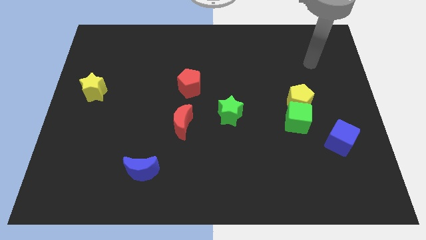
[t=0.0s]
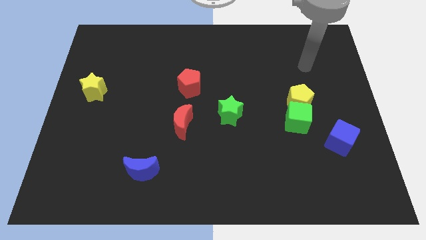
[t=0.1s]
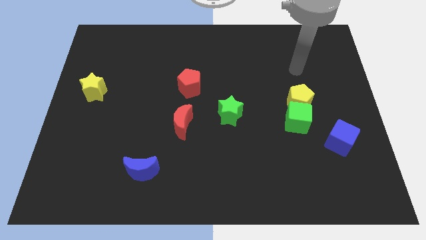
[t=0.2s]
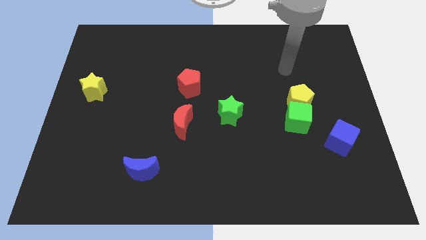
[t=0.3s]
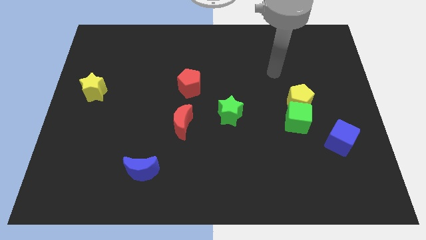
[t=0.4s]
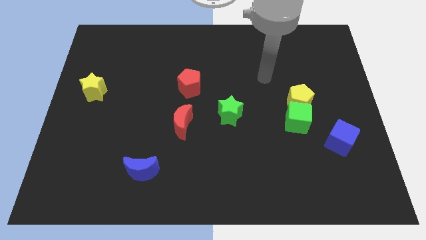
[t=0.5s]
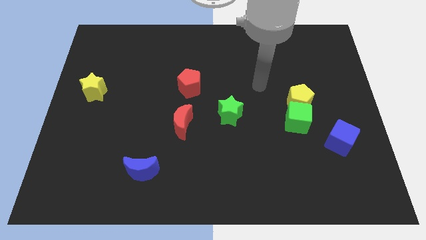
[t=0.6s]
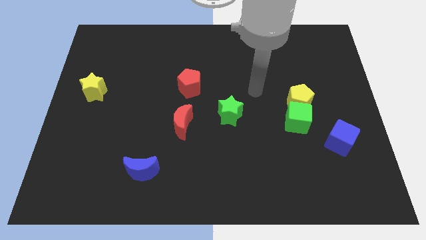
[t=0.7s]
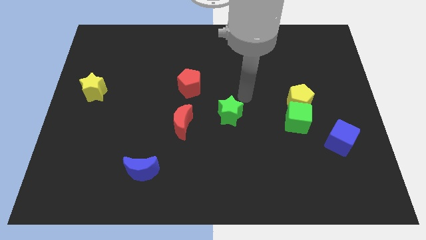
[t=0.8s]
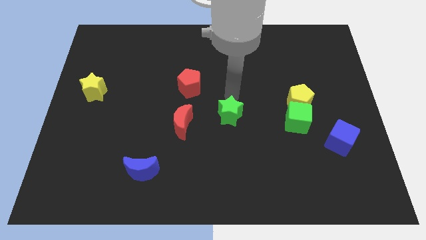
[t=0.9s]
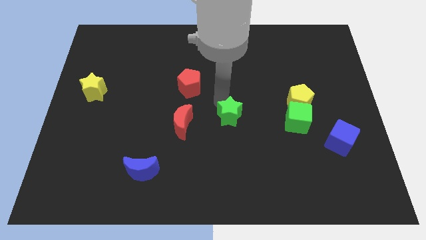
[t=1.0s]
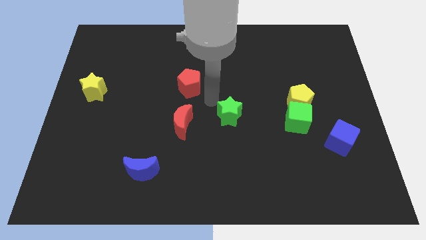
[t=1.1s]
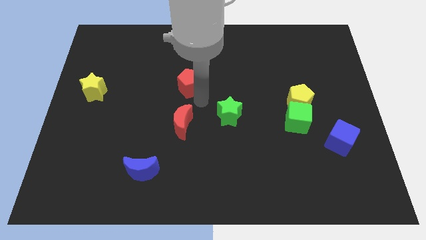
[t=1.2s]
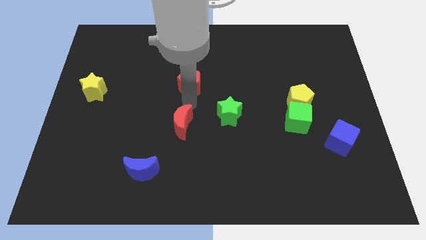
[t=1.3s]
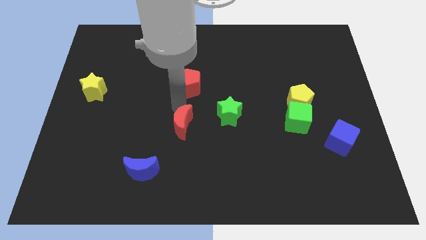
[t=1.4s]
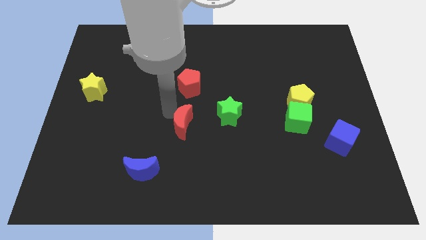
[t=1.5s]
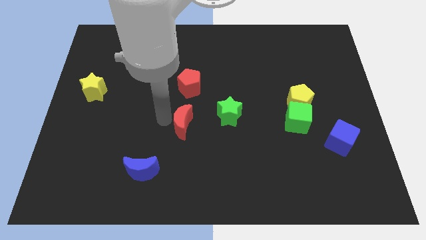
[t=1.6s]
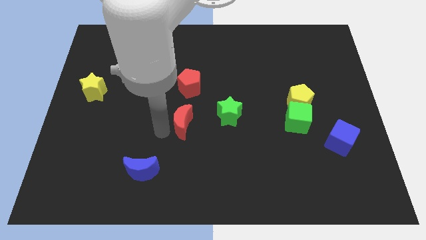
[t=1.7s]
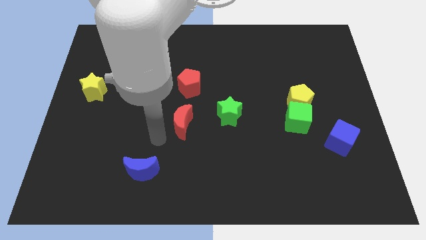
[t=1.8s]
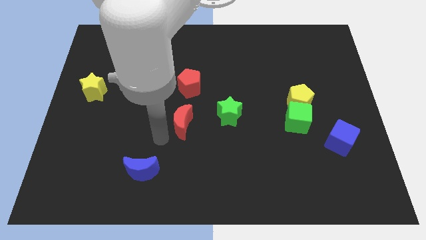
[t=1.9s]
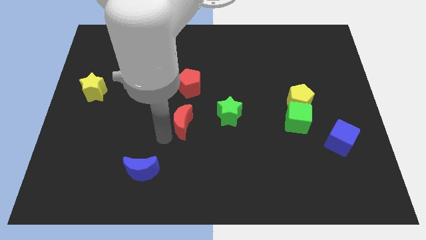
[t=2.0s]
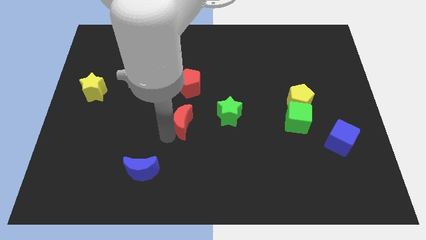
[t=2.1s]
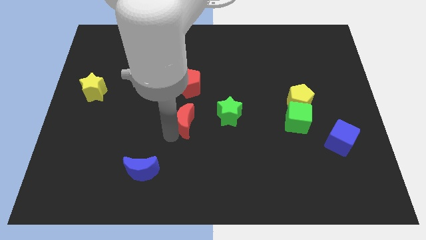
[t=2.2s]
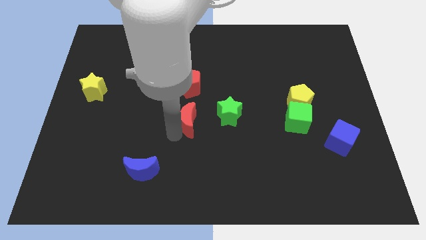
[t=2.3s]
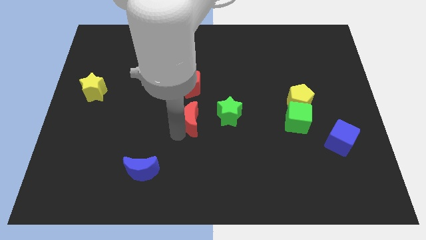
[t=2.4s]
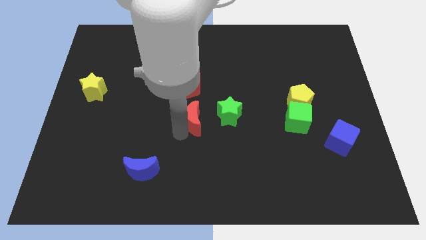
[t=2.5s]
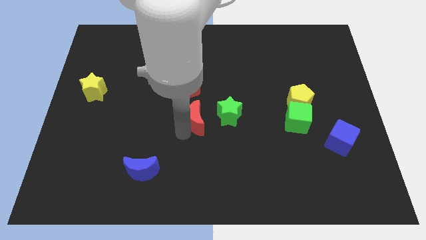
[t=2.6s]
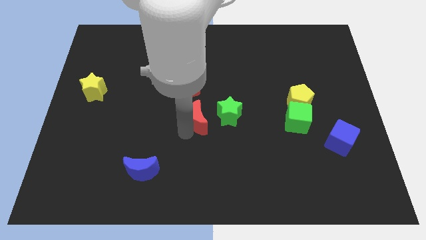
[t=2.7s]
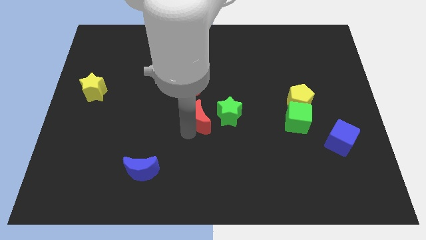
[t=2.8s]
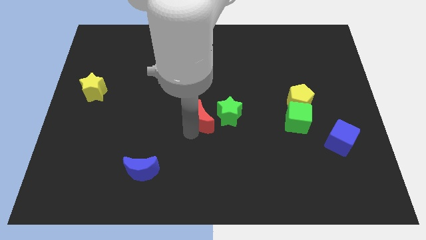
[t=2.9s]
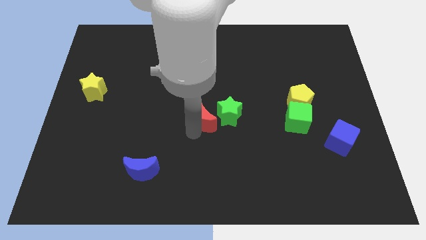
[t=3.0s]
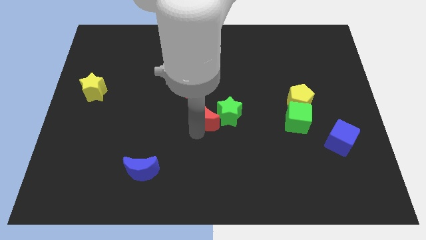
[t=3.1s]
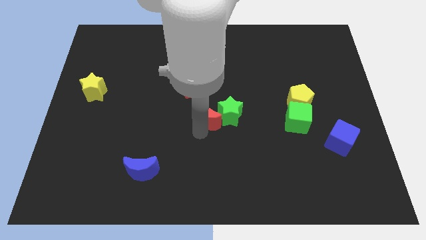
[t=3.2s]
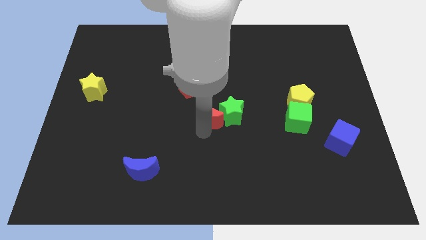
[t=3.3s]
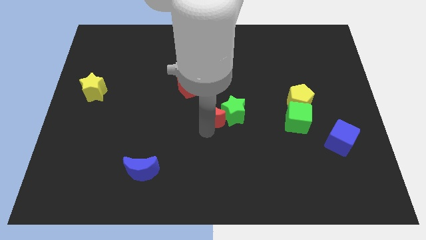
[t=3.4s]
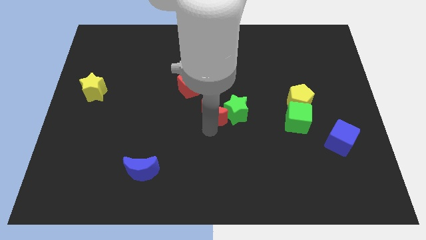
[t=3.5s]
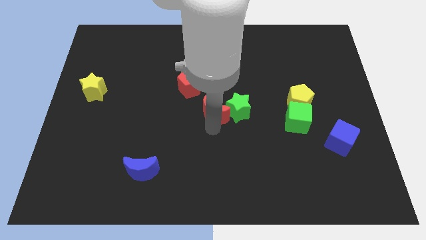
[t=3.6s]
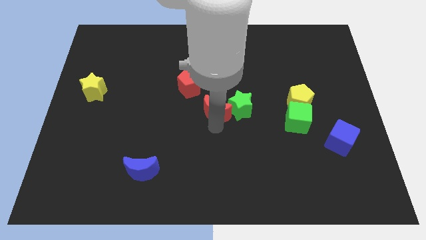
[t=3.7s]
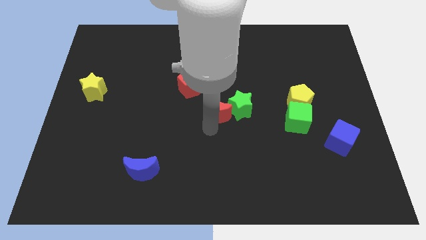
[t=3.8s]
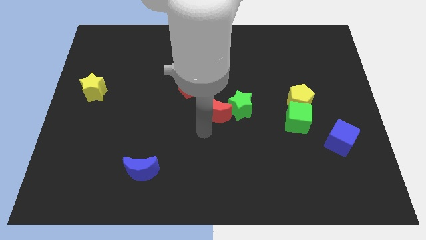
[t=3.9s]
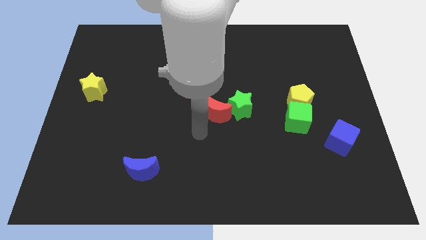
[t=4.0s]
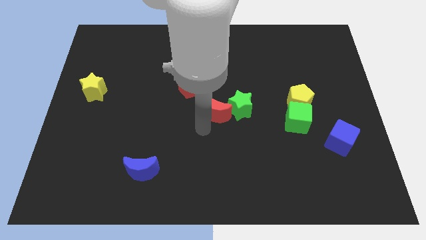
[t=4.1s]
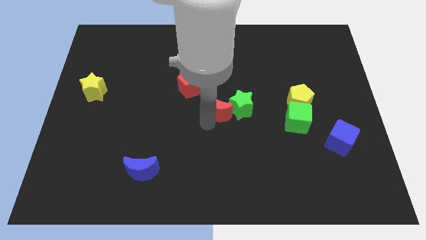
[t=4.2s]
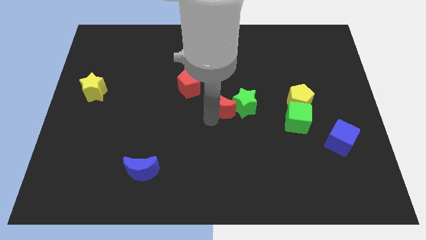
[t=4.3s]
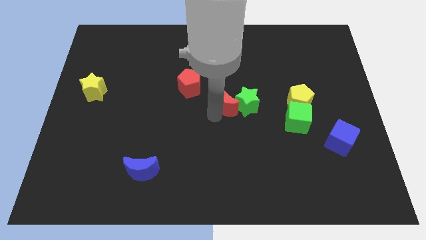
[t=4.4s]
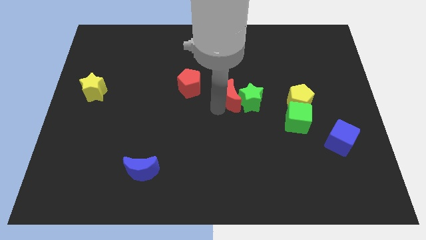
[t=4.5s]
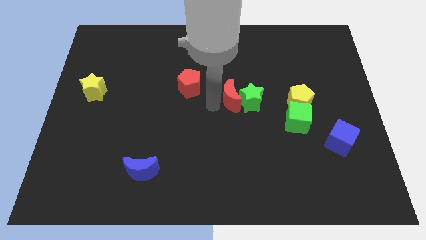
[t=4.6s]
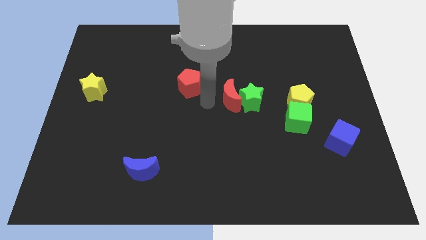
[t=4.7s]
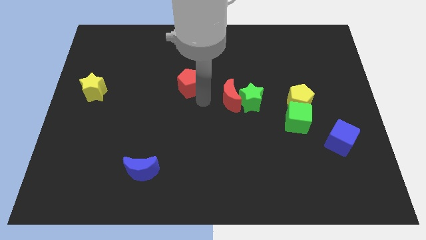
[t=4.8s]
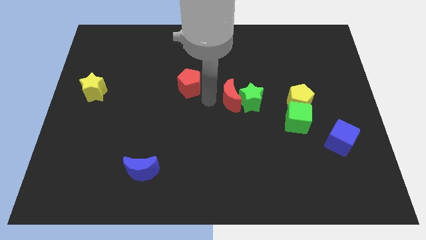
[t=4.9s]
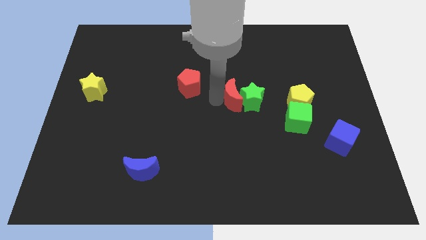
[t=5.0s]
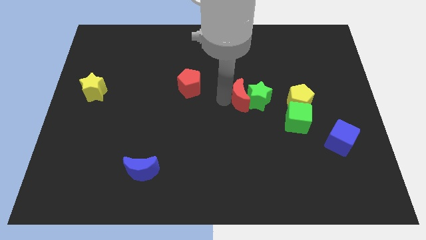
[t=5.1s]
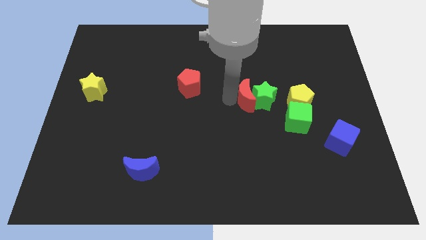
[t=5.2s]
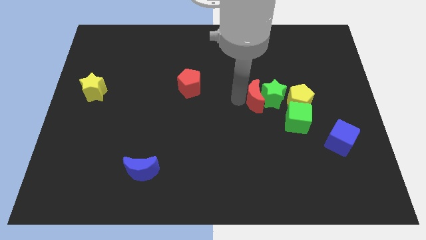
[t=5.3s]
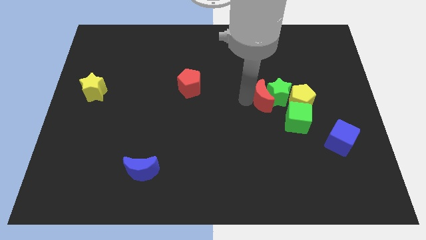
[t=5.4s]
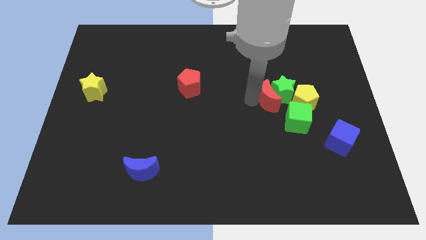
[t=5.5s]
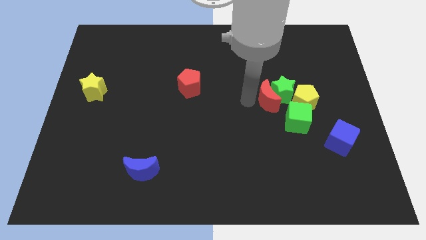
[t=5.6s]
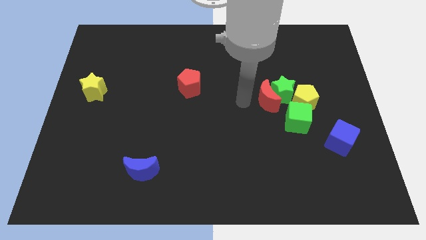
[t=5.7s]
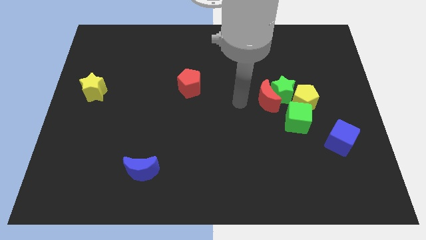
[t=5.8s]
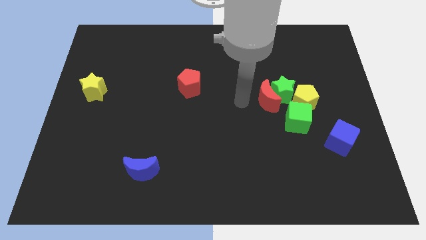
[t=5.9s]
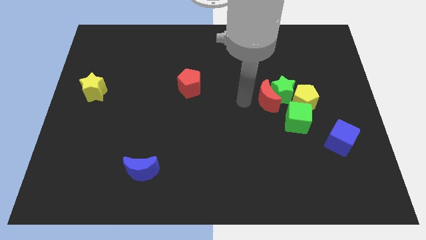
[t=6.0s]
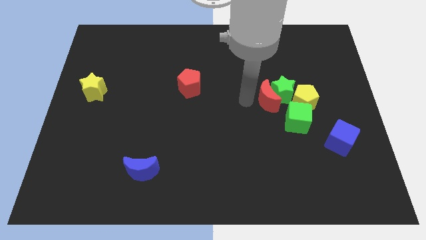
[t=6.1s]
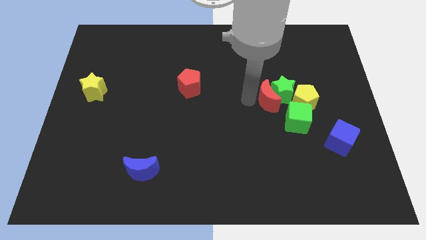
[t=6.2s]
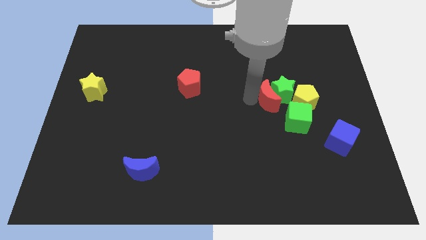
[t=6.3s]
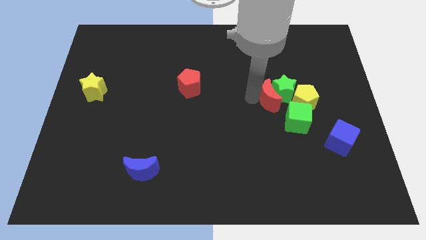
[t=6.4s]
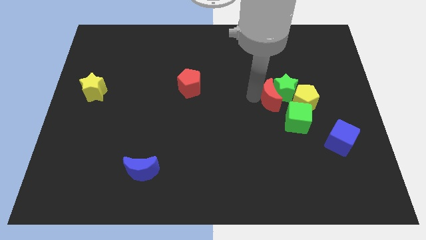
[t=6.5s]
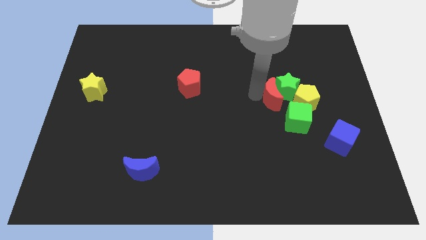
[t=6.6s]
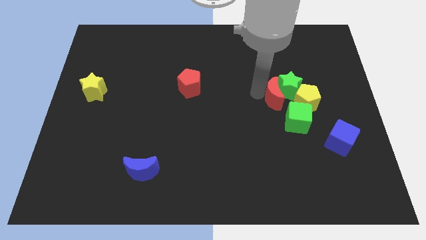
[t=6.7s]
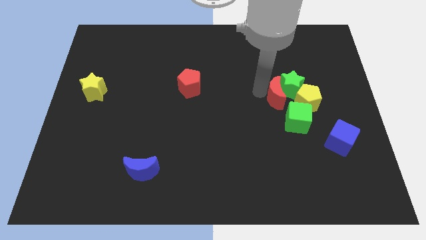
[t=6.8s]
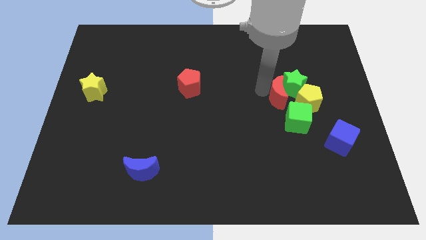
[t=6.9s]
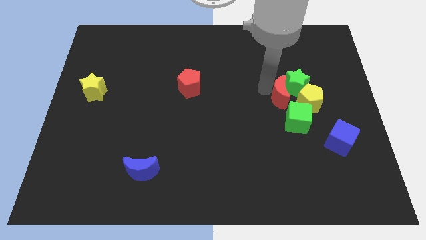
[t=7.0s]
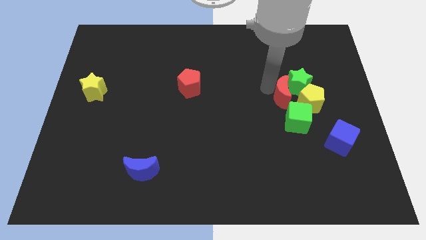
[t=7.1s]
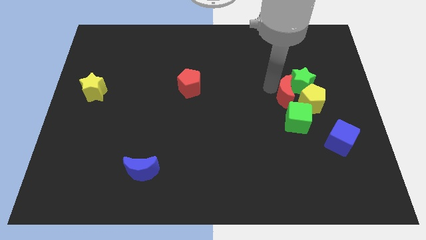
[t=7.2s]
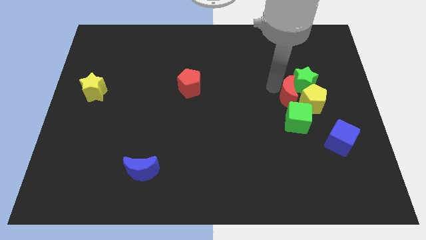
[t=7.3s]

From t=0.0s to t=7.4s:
move the red moon to the yellow pentagon
